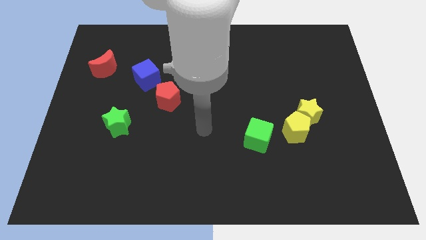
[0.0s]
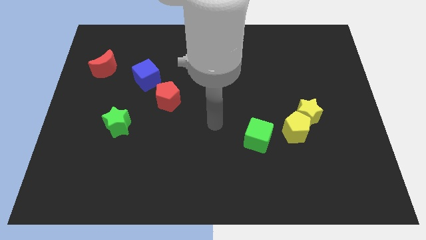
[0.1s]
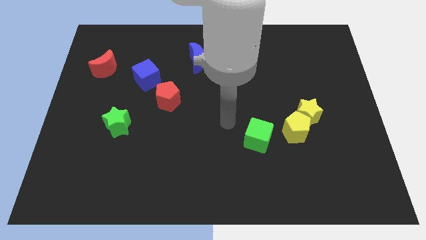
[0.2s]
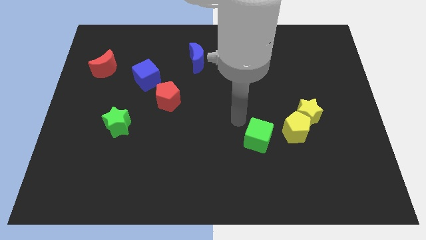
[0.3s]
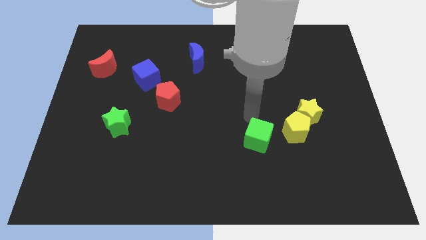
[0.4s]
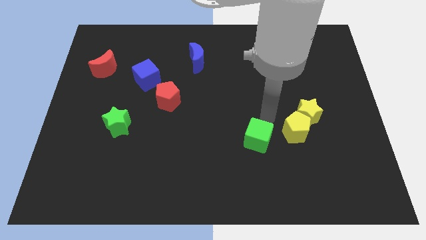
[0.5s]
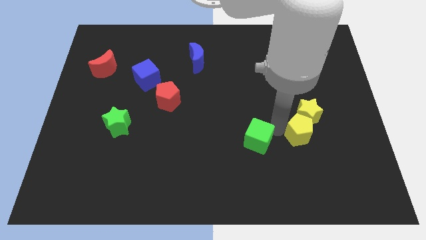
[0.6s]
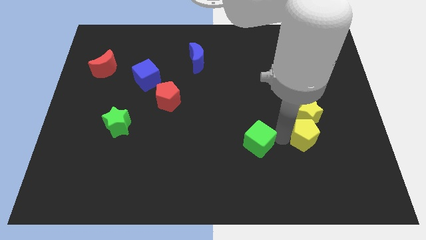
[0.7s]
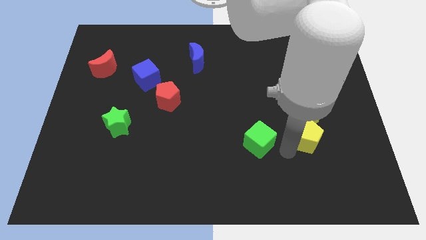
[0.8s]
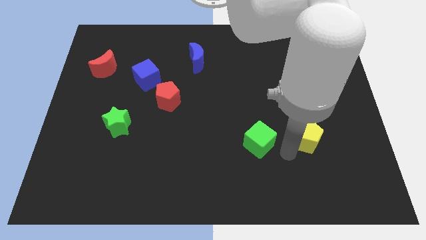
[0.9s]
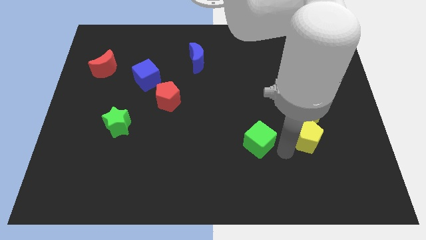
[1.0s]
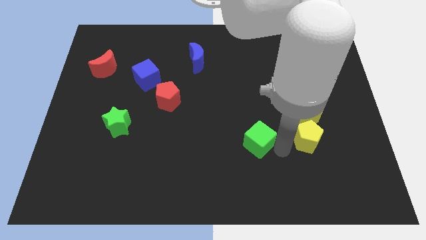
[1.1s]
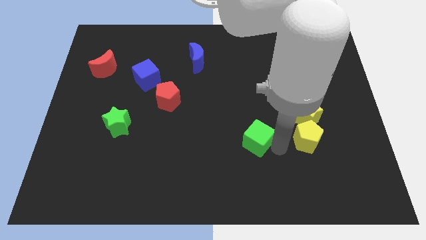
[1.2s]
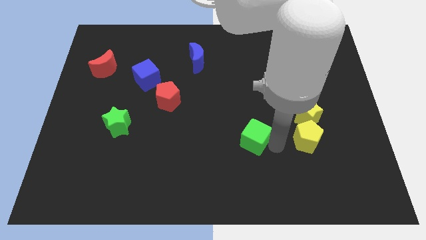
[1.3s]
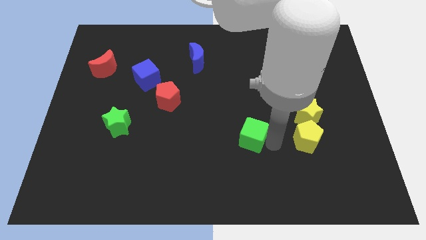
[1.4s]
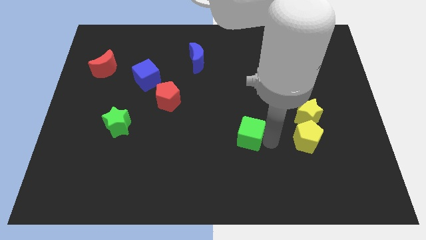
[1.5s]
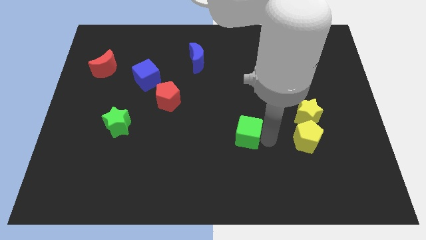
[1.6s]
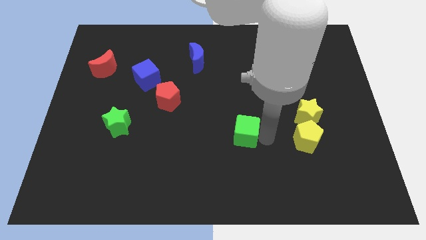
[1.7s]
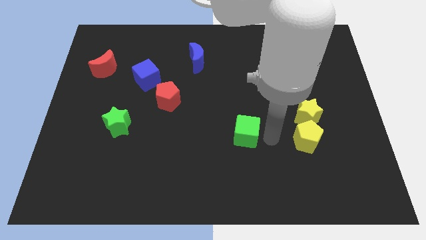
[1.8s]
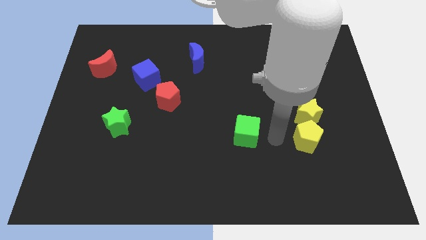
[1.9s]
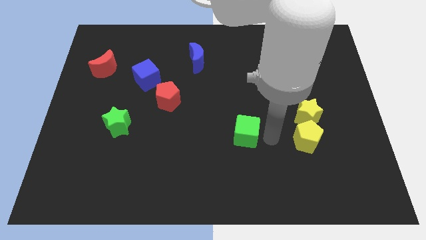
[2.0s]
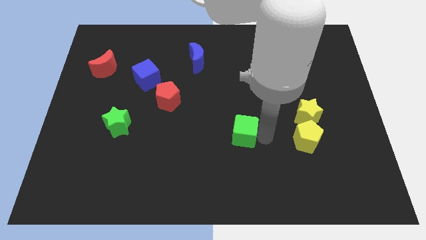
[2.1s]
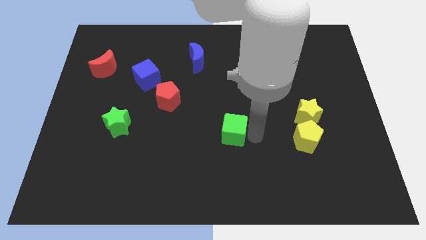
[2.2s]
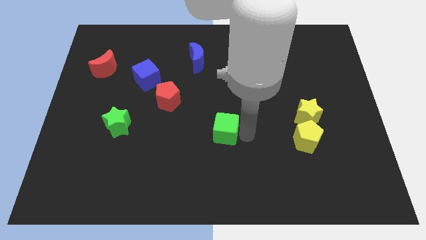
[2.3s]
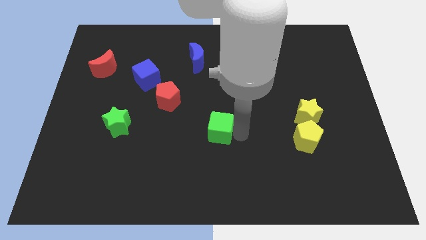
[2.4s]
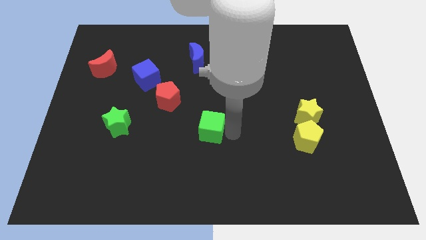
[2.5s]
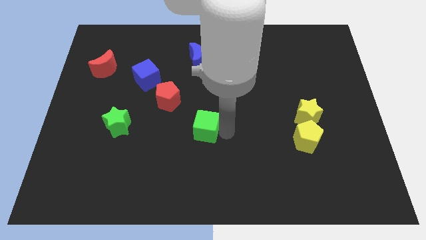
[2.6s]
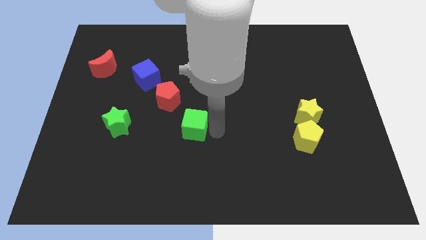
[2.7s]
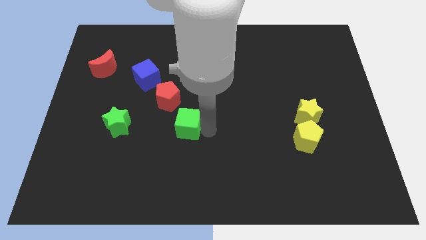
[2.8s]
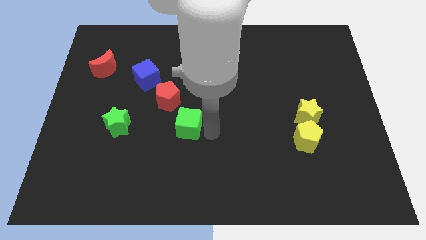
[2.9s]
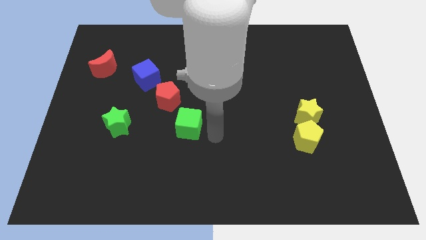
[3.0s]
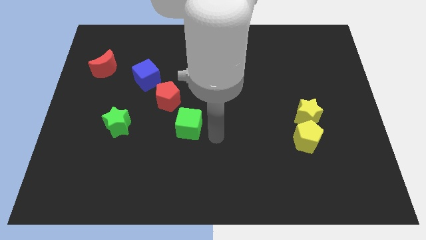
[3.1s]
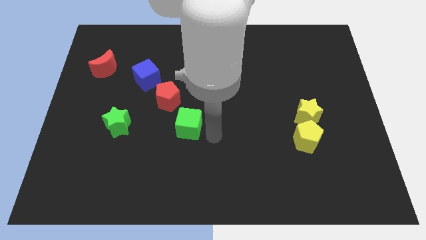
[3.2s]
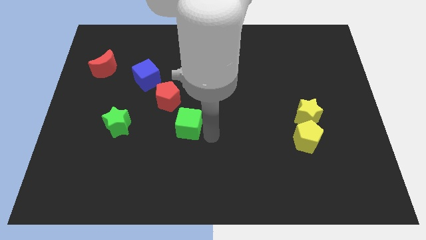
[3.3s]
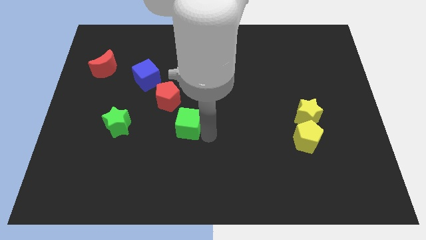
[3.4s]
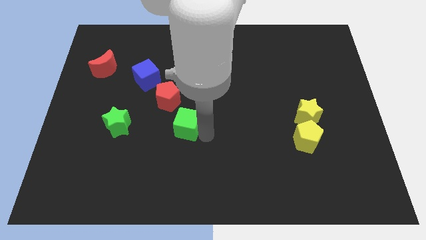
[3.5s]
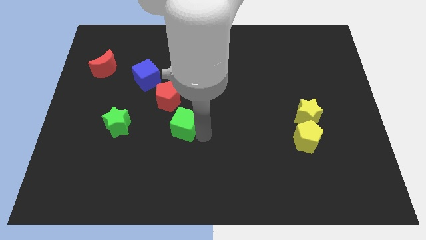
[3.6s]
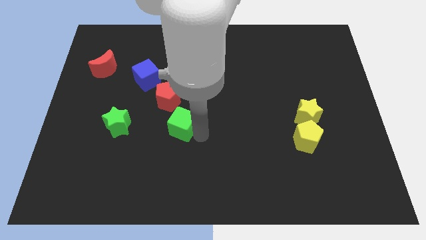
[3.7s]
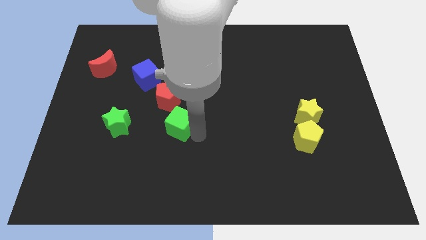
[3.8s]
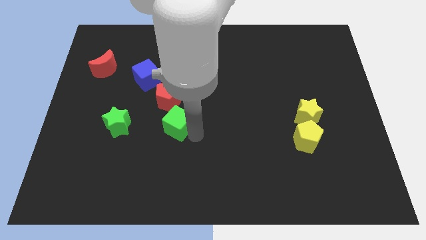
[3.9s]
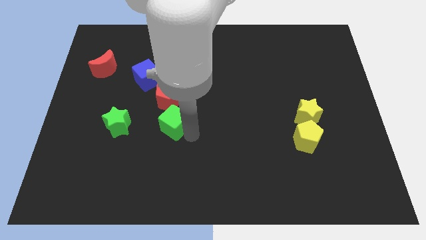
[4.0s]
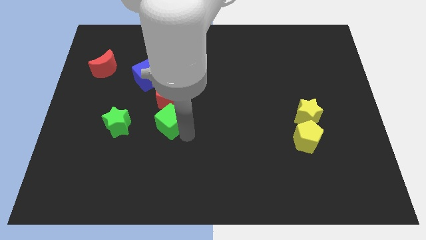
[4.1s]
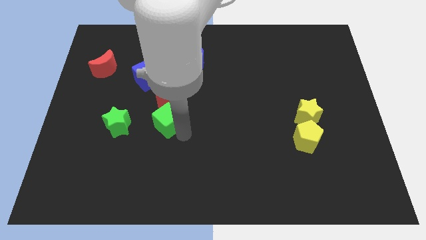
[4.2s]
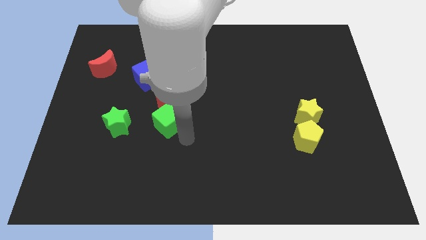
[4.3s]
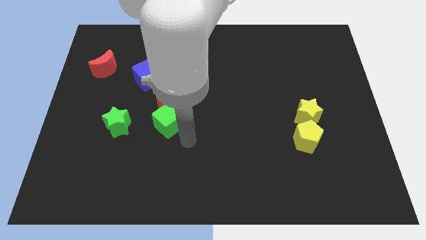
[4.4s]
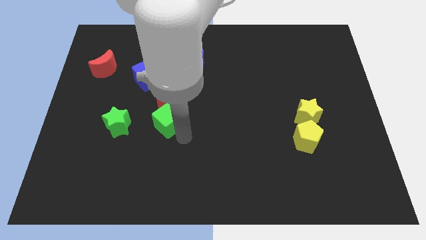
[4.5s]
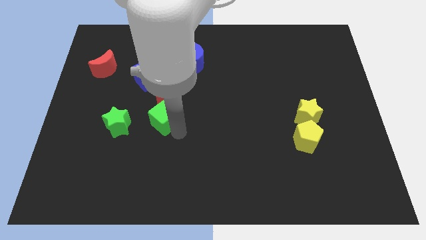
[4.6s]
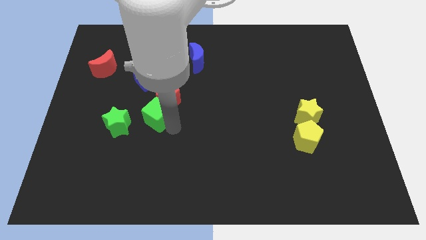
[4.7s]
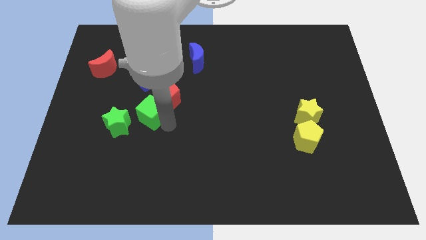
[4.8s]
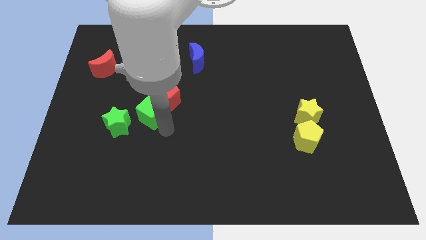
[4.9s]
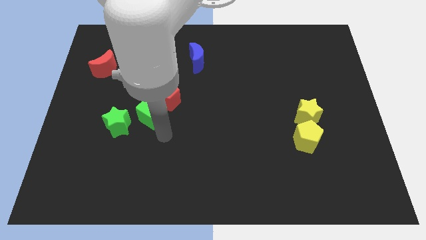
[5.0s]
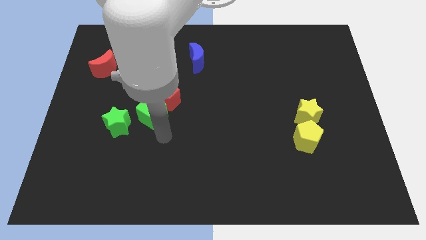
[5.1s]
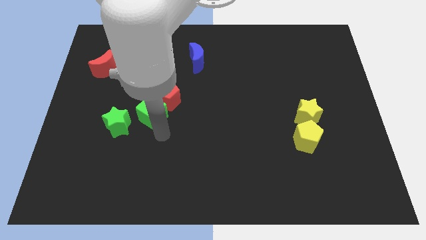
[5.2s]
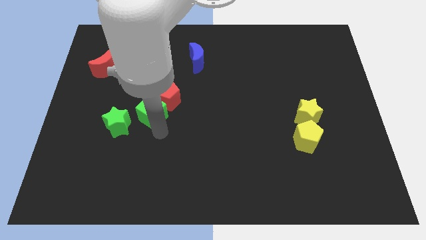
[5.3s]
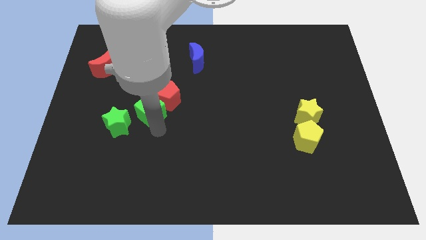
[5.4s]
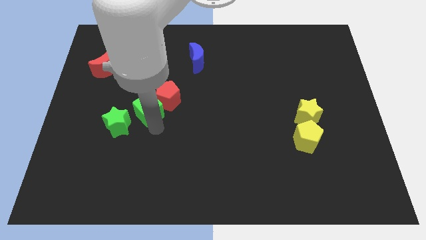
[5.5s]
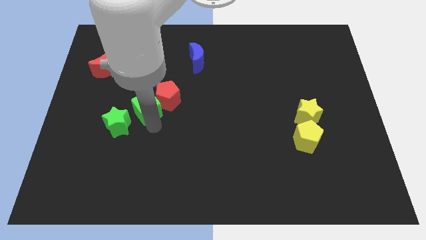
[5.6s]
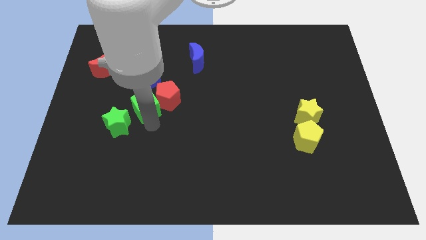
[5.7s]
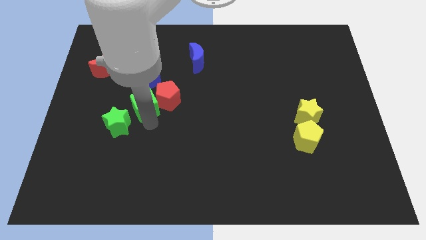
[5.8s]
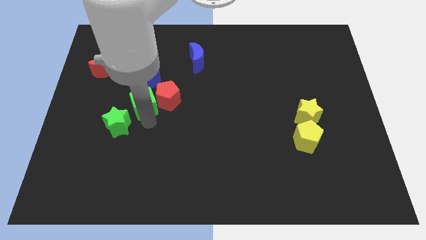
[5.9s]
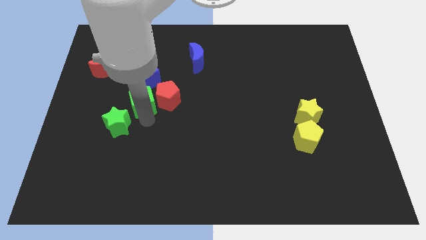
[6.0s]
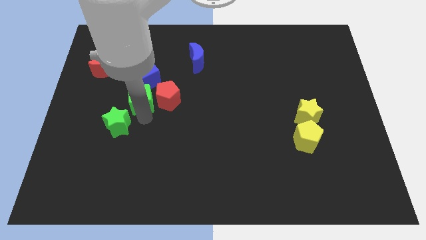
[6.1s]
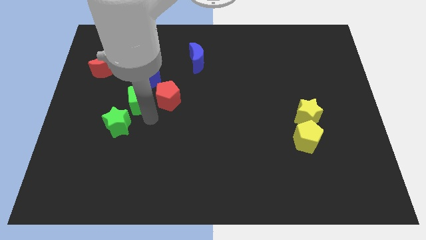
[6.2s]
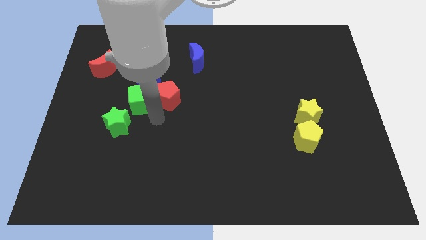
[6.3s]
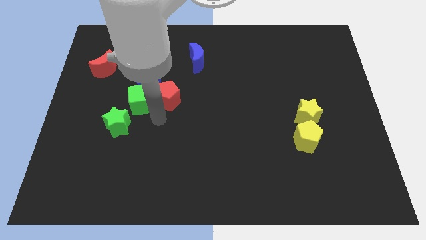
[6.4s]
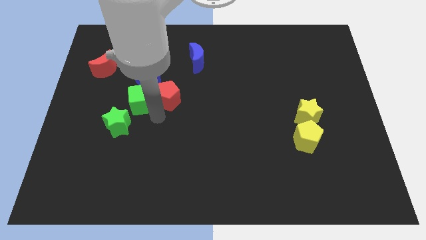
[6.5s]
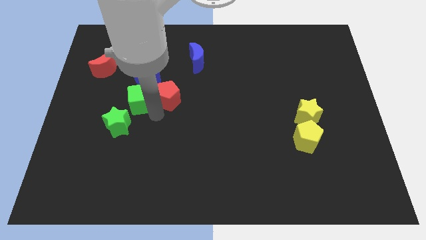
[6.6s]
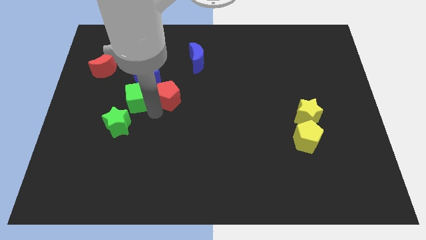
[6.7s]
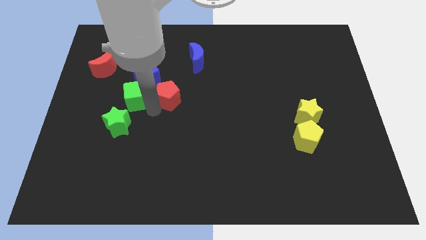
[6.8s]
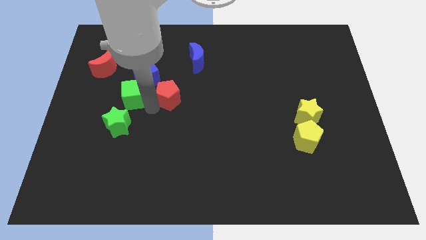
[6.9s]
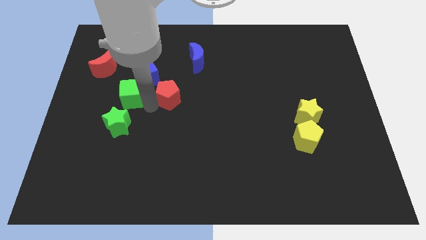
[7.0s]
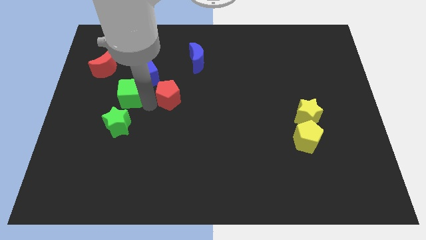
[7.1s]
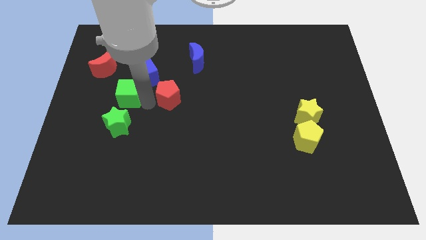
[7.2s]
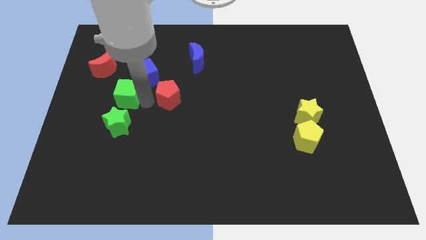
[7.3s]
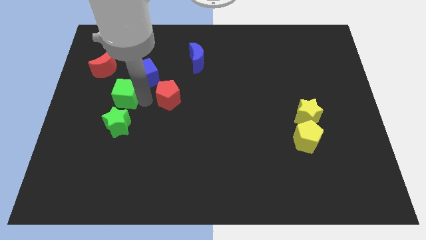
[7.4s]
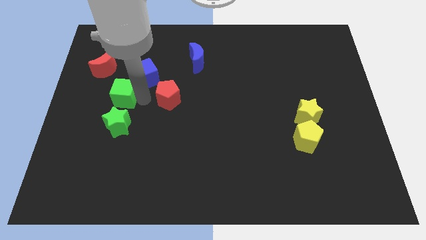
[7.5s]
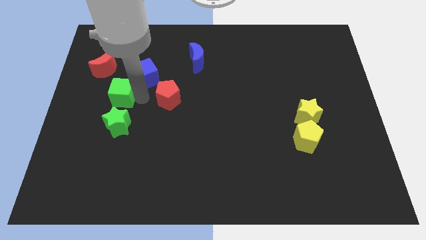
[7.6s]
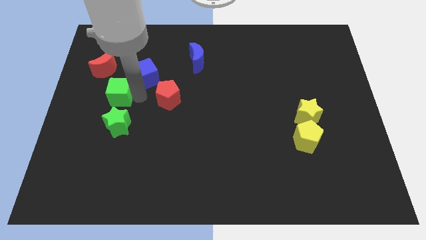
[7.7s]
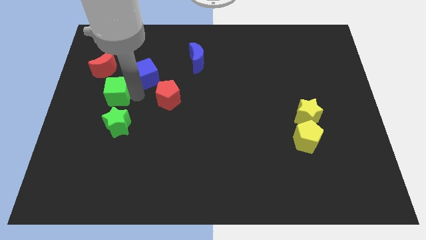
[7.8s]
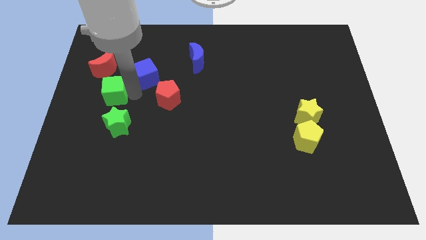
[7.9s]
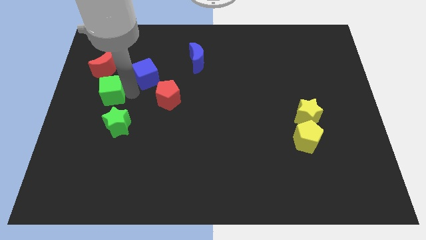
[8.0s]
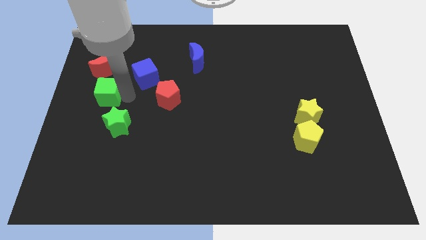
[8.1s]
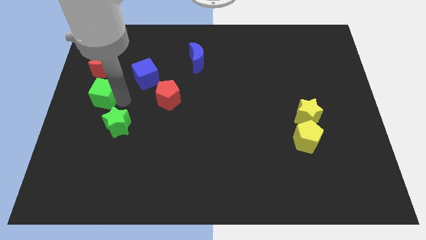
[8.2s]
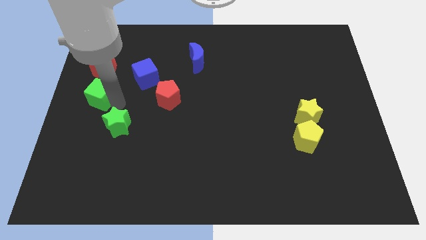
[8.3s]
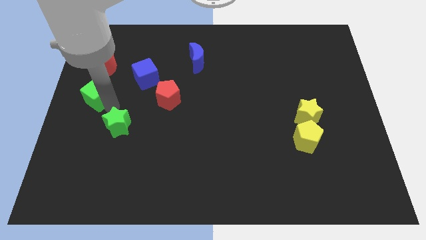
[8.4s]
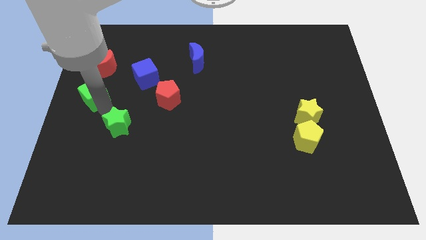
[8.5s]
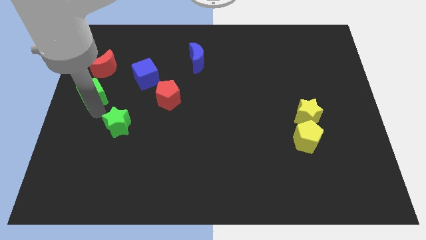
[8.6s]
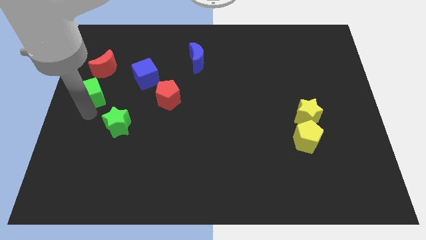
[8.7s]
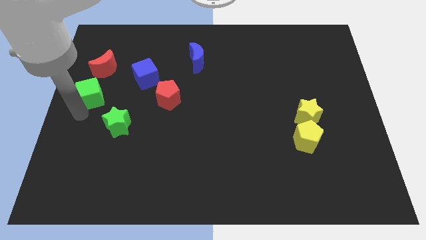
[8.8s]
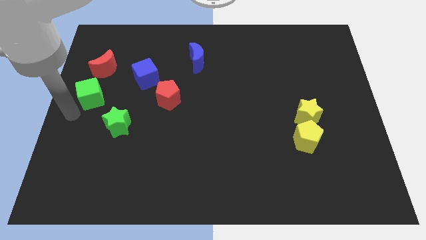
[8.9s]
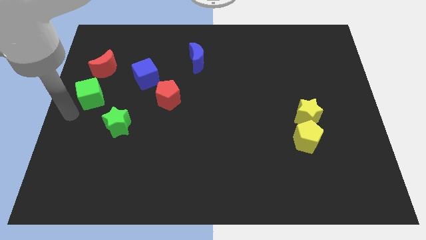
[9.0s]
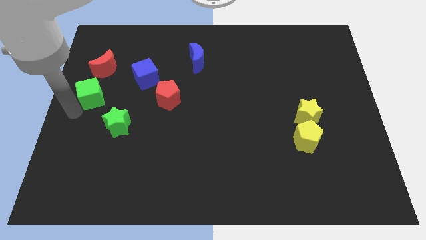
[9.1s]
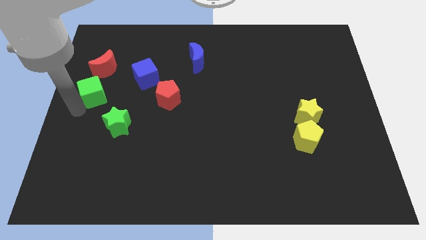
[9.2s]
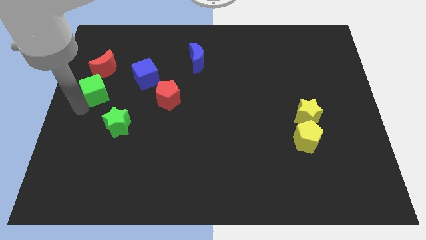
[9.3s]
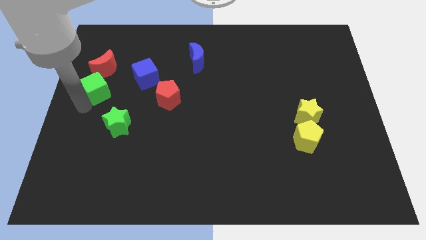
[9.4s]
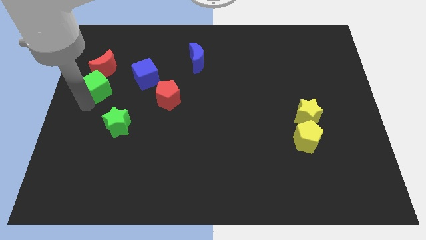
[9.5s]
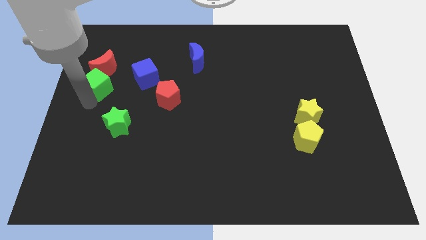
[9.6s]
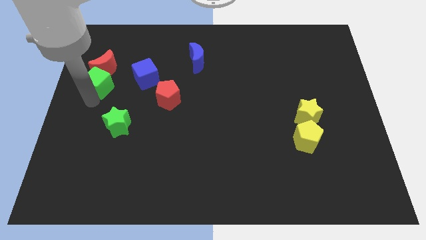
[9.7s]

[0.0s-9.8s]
push the green cube next to the red moon
